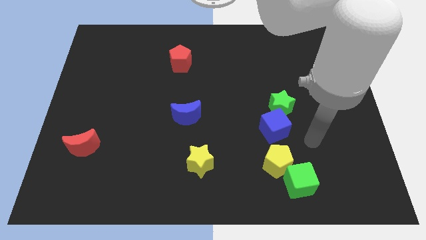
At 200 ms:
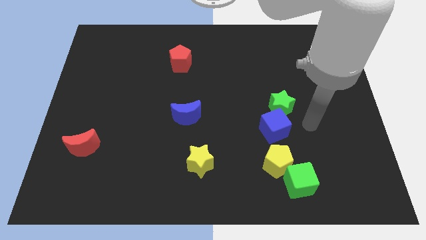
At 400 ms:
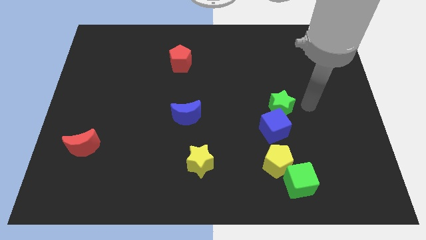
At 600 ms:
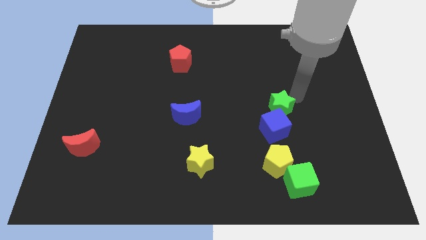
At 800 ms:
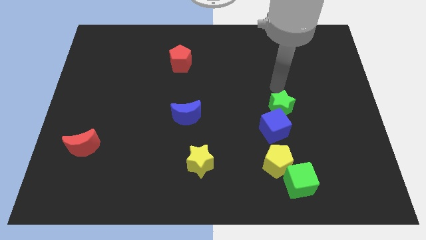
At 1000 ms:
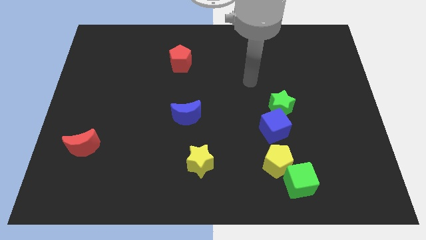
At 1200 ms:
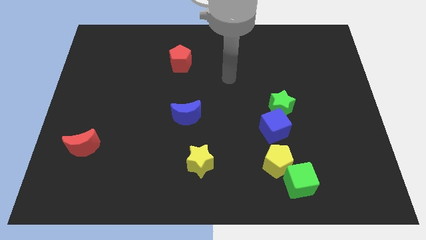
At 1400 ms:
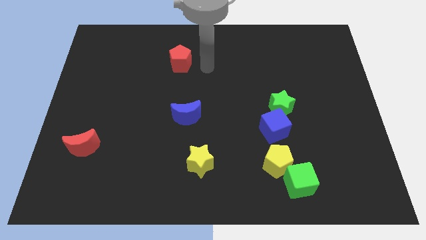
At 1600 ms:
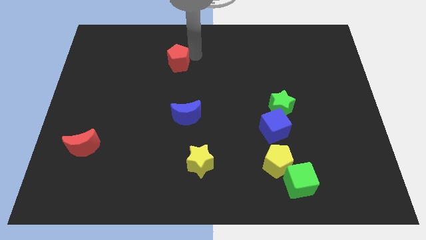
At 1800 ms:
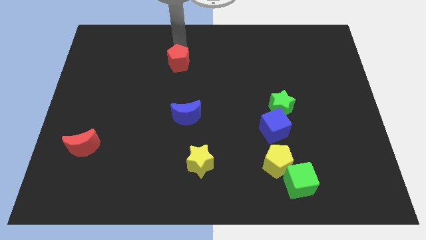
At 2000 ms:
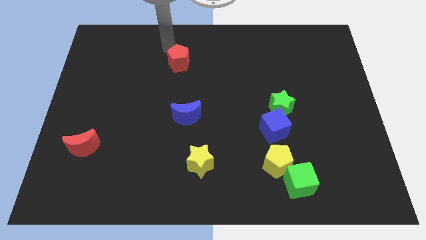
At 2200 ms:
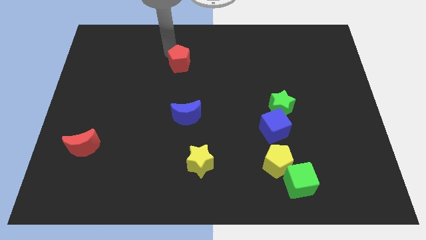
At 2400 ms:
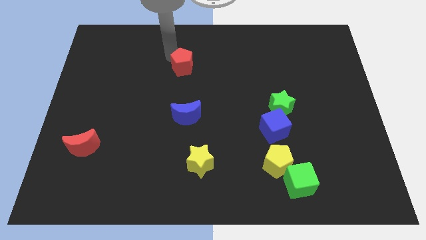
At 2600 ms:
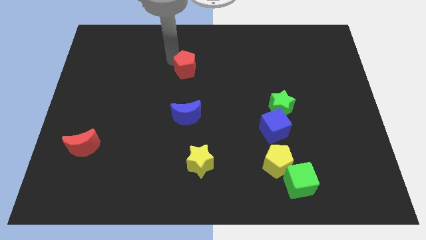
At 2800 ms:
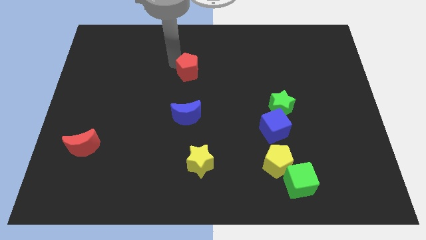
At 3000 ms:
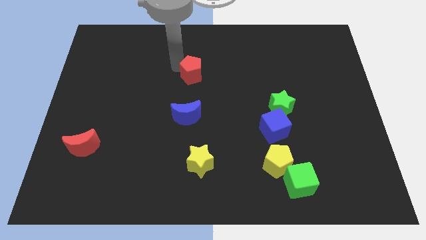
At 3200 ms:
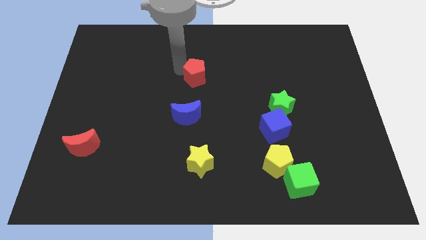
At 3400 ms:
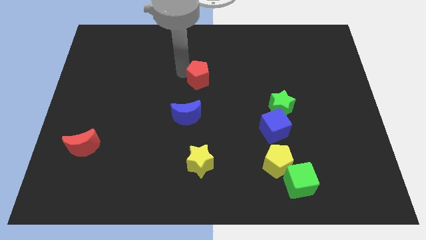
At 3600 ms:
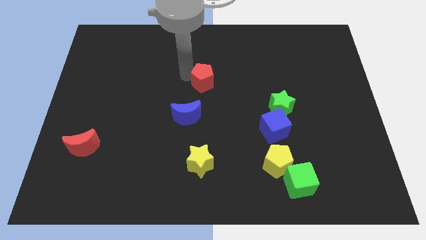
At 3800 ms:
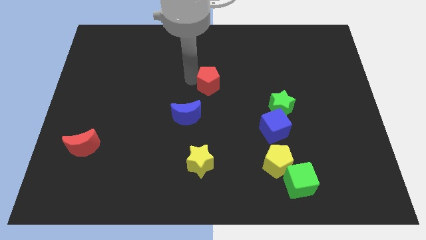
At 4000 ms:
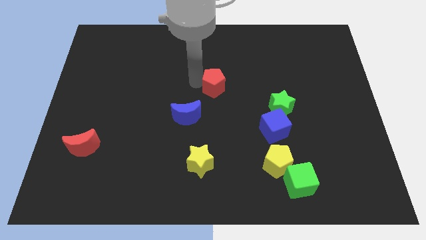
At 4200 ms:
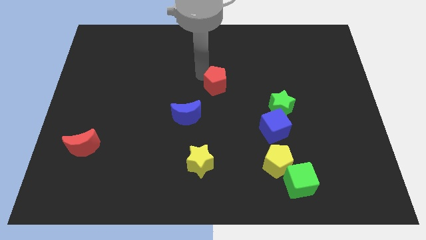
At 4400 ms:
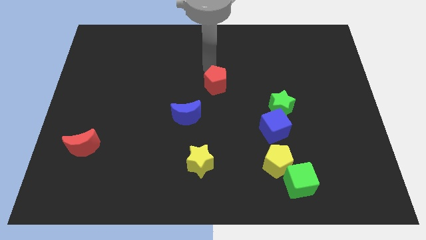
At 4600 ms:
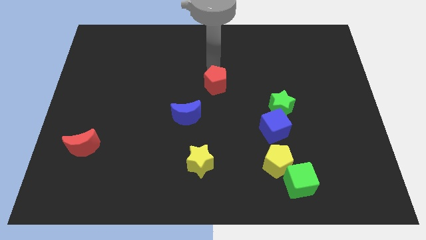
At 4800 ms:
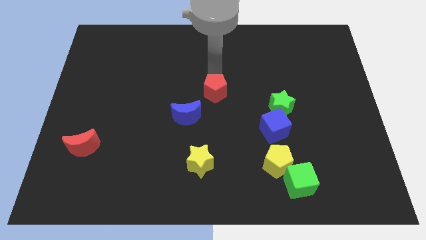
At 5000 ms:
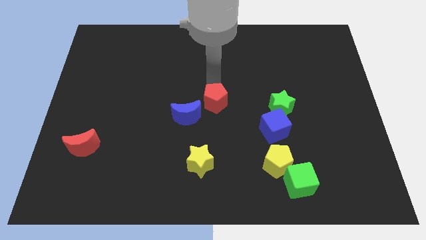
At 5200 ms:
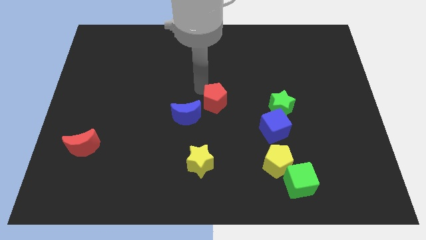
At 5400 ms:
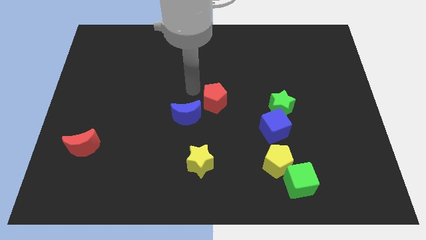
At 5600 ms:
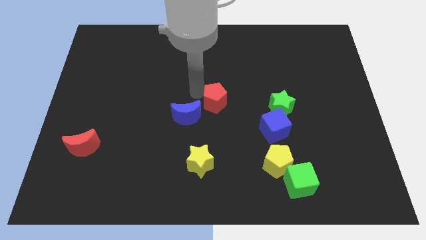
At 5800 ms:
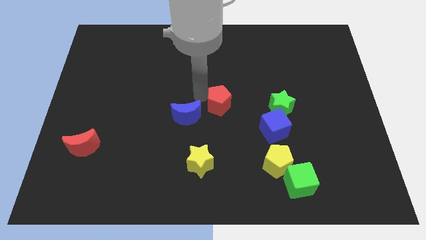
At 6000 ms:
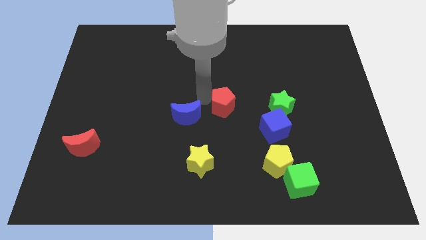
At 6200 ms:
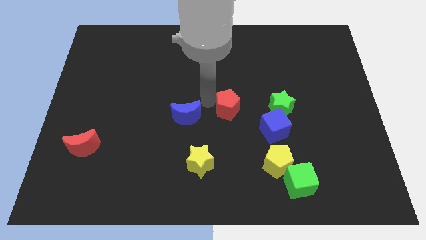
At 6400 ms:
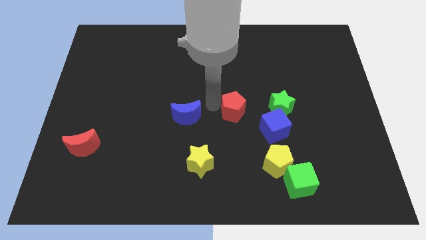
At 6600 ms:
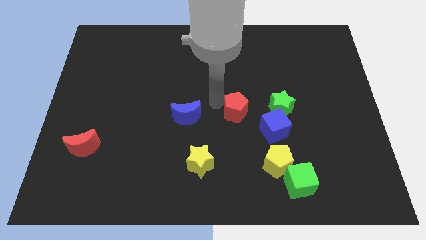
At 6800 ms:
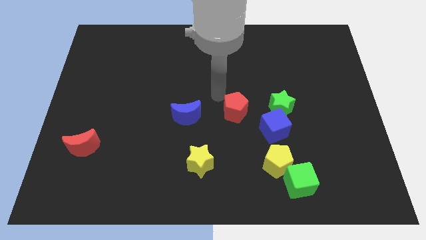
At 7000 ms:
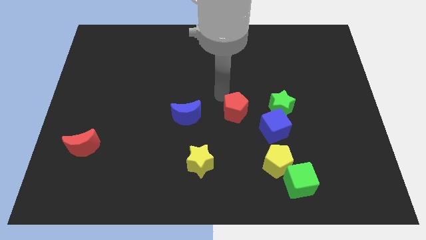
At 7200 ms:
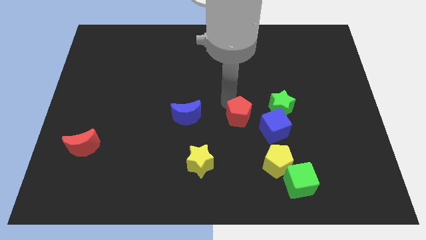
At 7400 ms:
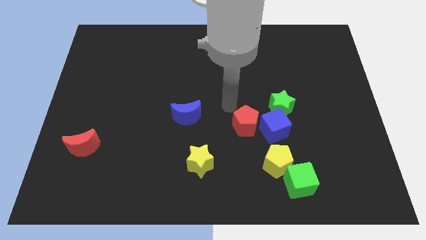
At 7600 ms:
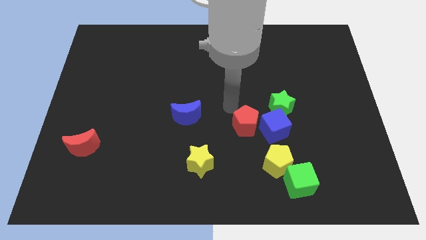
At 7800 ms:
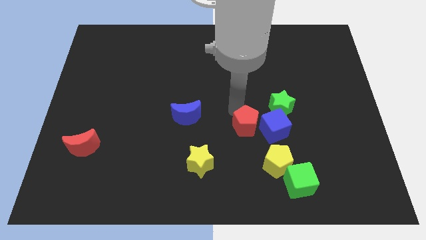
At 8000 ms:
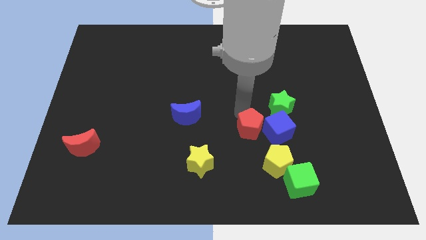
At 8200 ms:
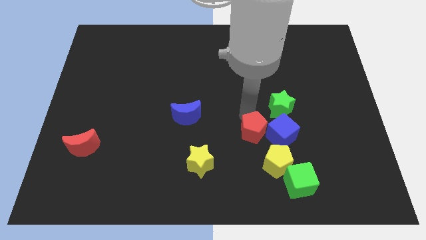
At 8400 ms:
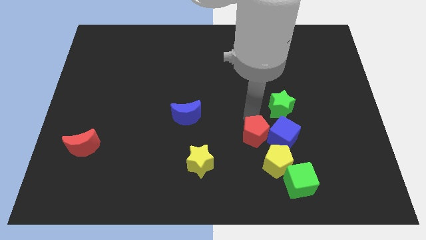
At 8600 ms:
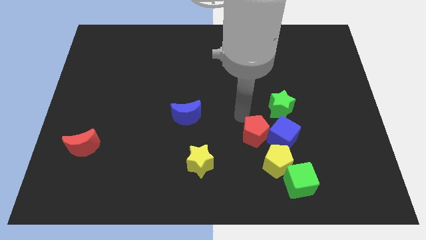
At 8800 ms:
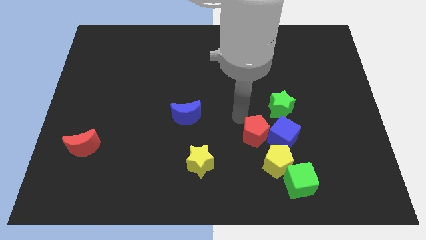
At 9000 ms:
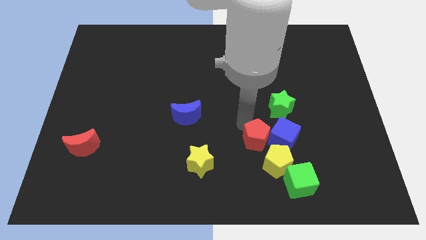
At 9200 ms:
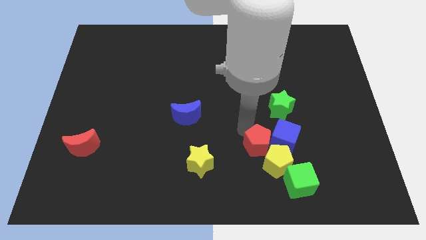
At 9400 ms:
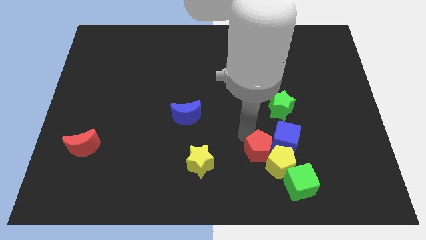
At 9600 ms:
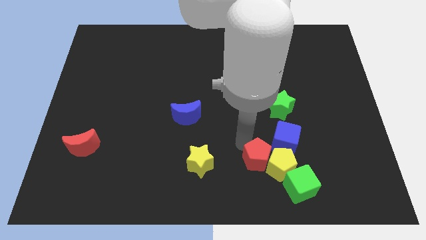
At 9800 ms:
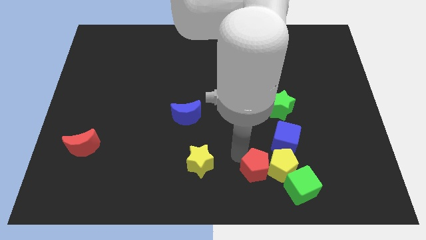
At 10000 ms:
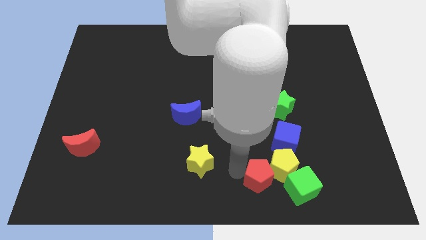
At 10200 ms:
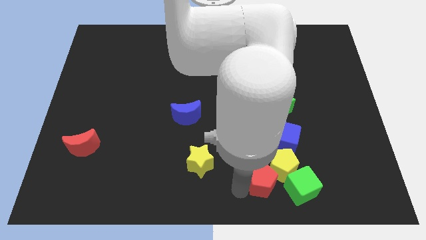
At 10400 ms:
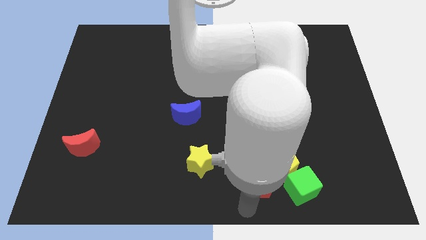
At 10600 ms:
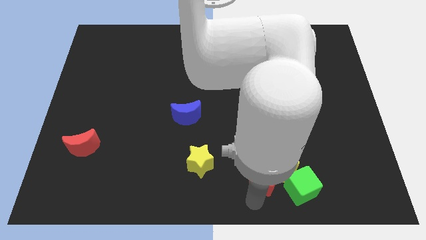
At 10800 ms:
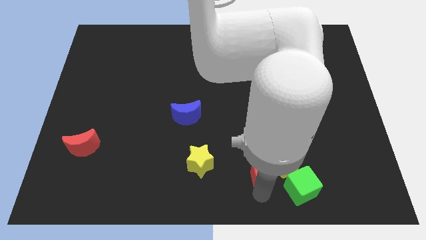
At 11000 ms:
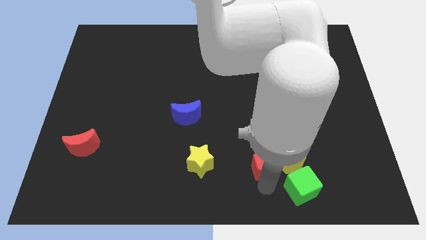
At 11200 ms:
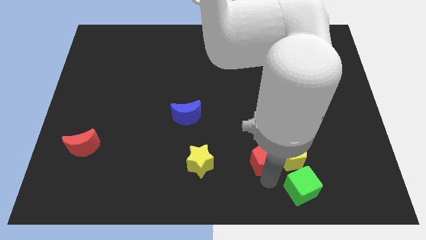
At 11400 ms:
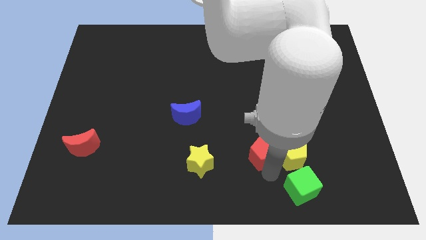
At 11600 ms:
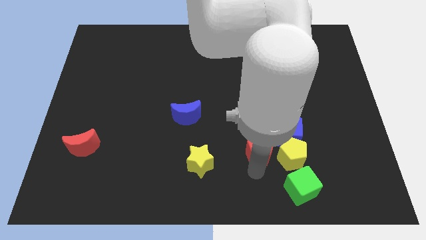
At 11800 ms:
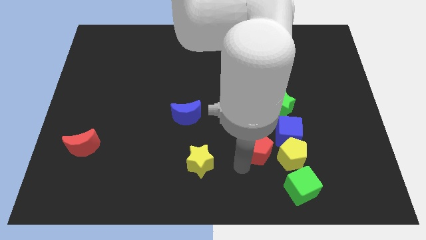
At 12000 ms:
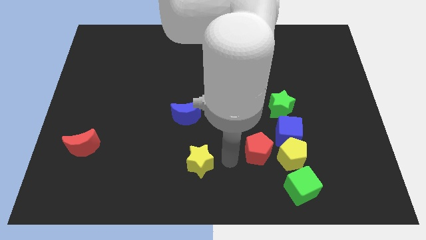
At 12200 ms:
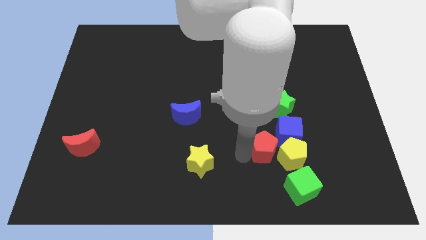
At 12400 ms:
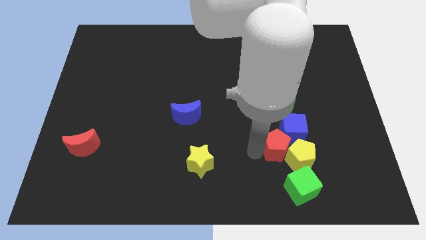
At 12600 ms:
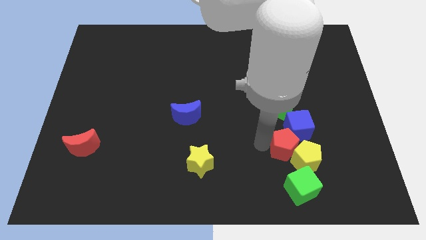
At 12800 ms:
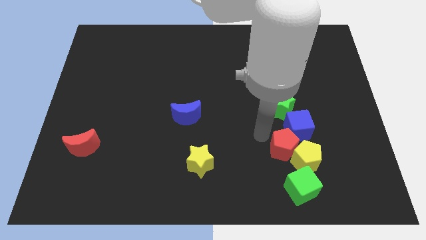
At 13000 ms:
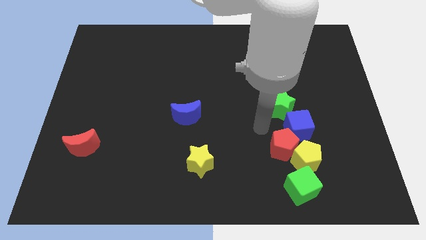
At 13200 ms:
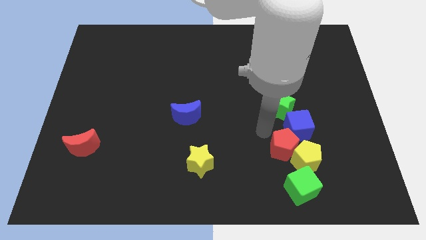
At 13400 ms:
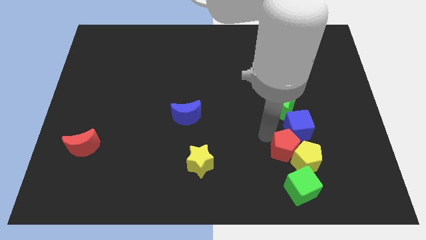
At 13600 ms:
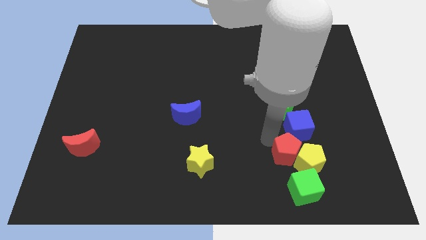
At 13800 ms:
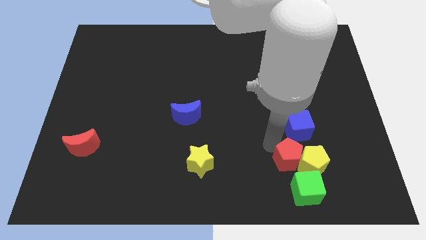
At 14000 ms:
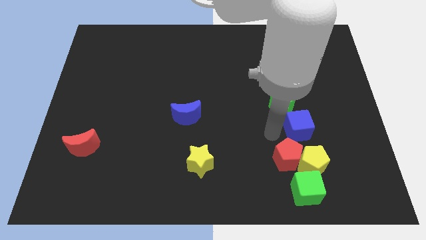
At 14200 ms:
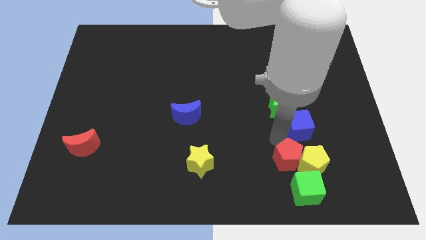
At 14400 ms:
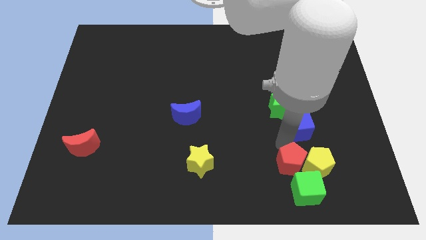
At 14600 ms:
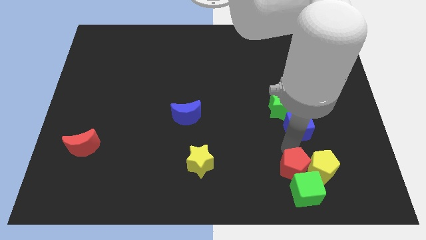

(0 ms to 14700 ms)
put the red pentagon next to the green cube
